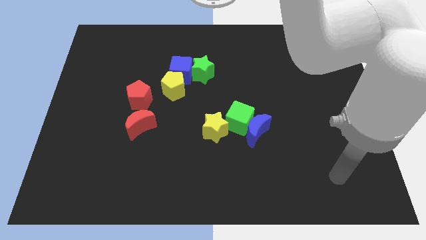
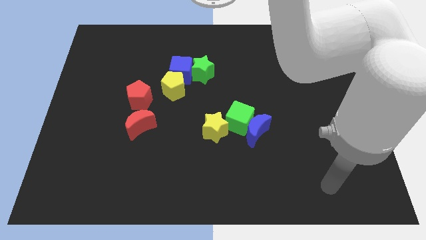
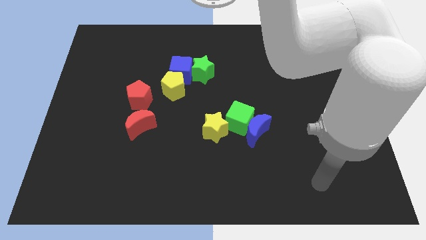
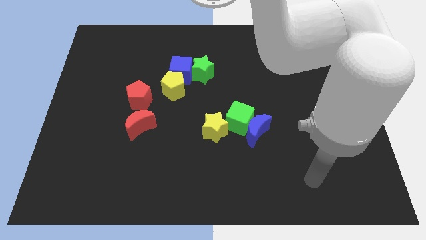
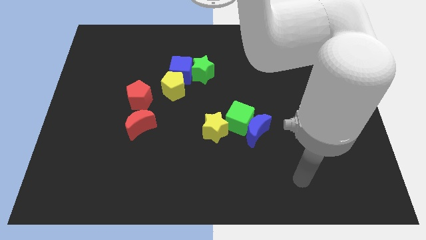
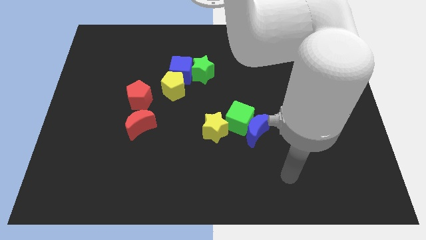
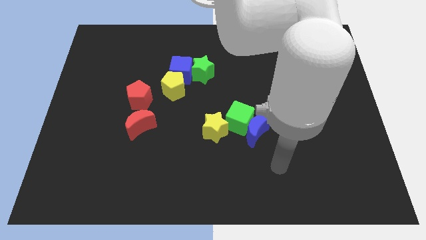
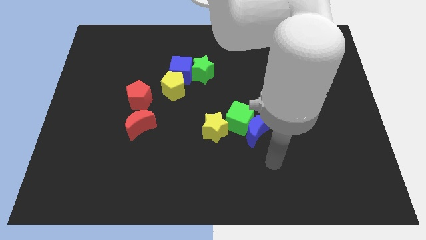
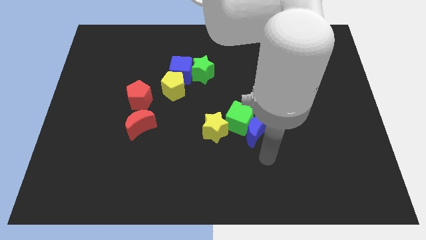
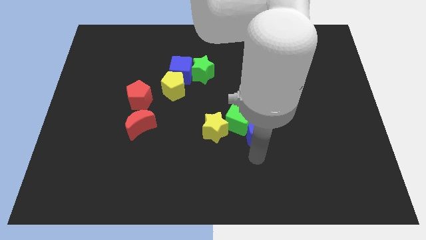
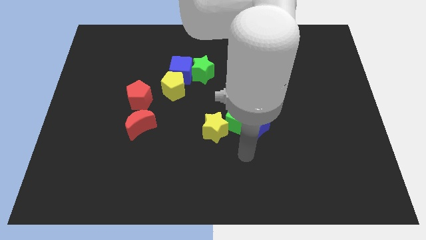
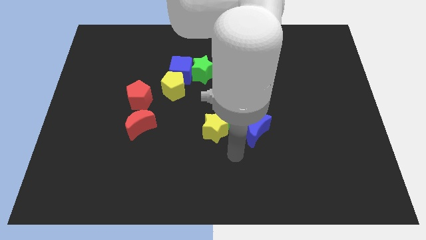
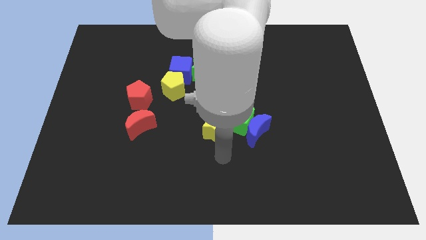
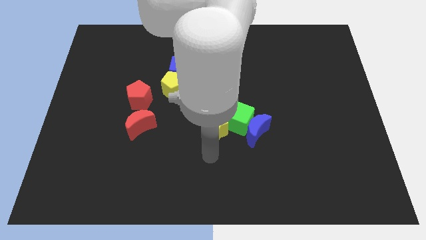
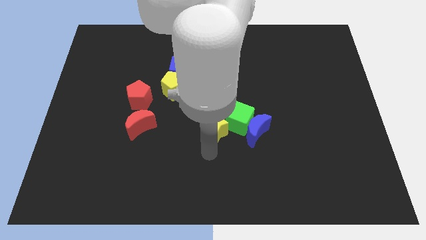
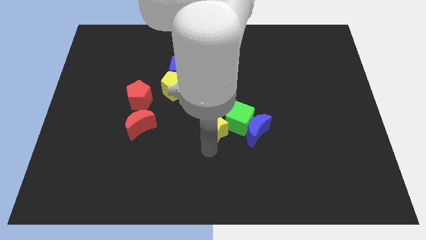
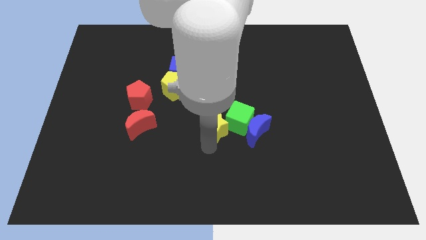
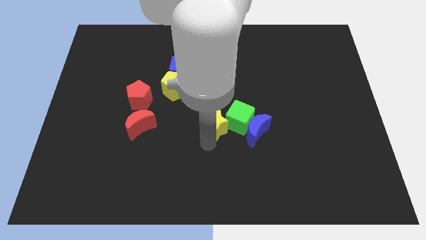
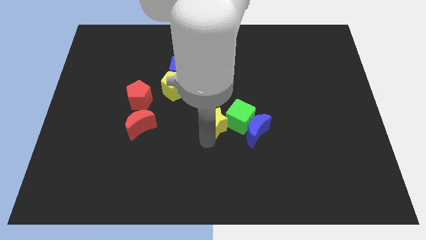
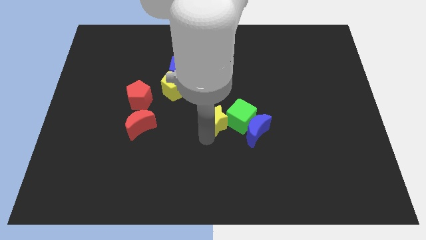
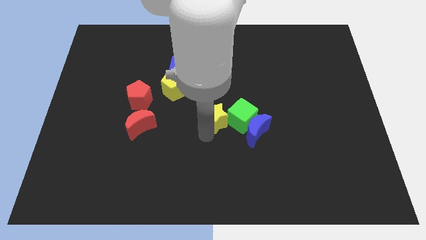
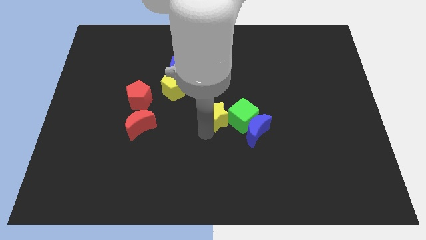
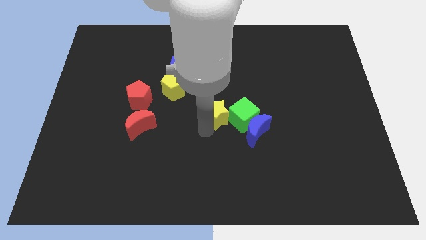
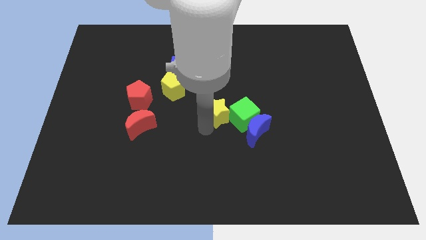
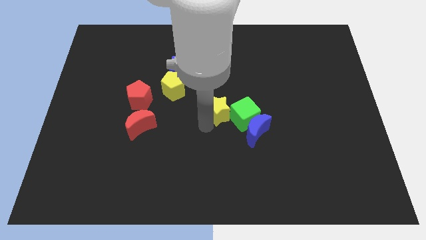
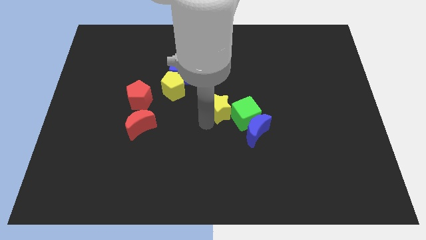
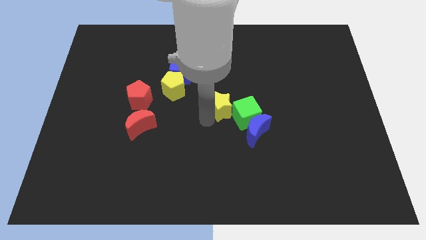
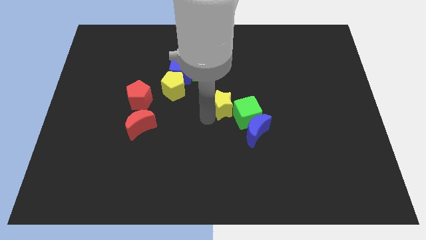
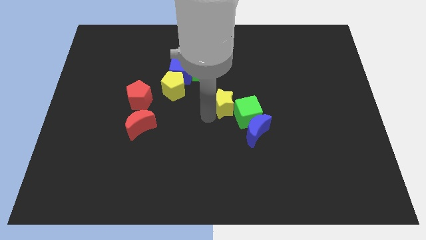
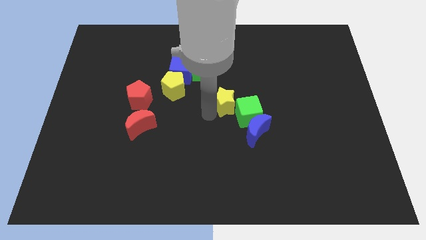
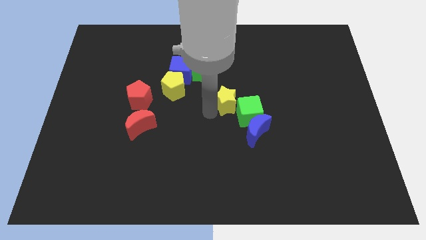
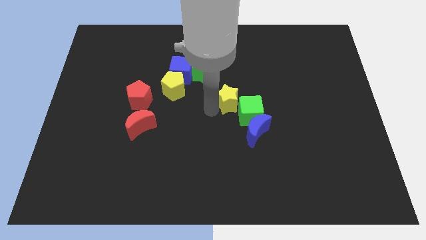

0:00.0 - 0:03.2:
slightly push the yellow star up and to the right

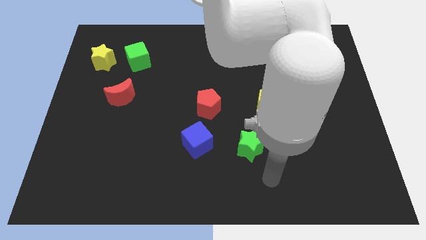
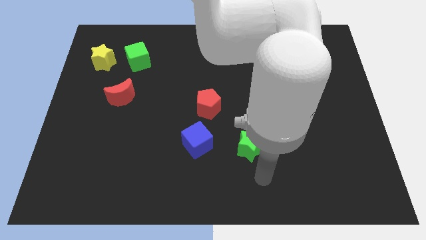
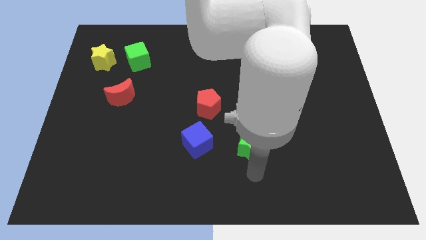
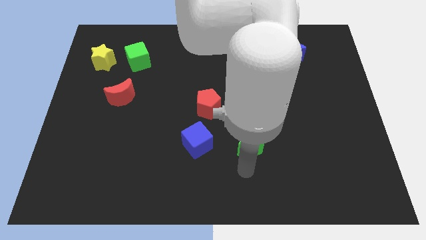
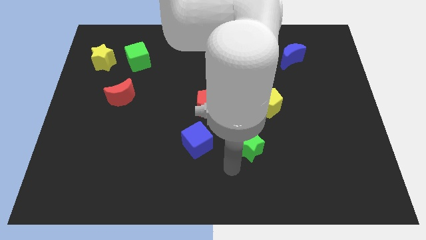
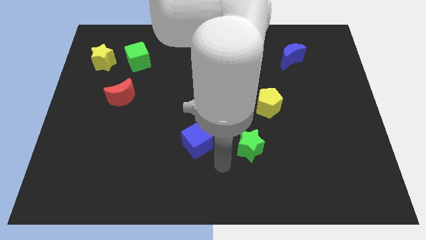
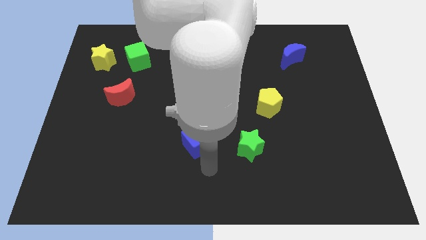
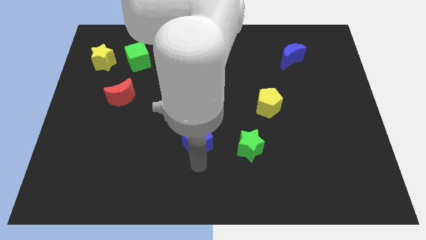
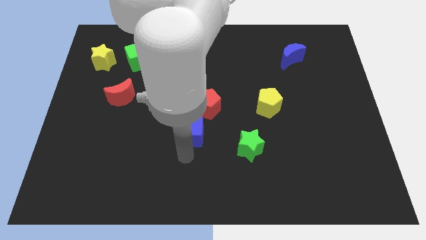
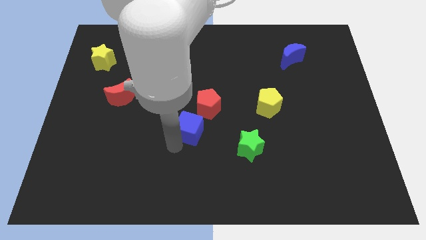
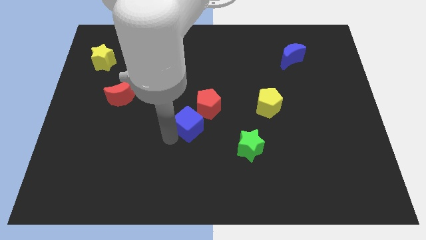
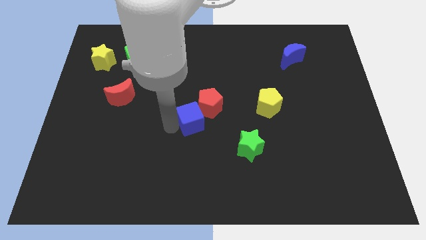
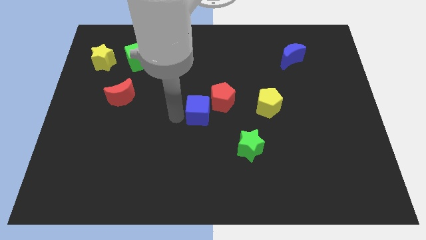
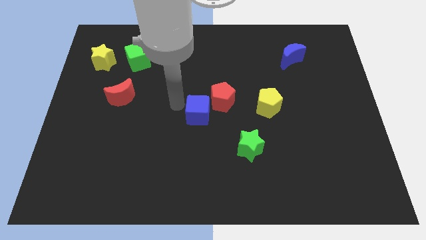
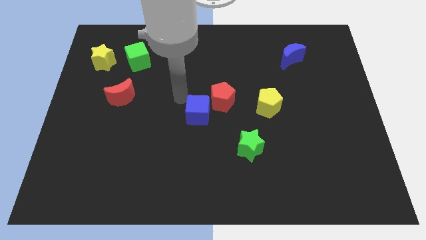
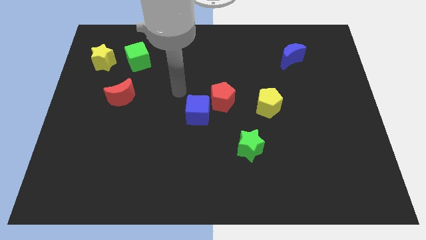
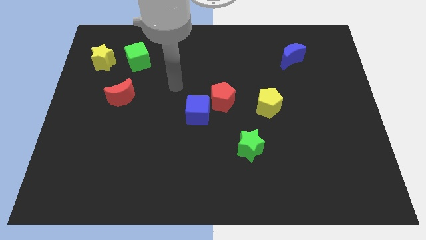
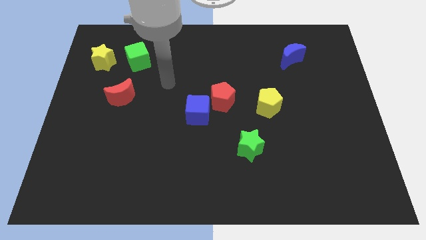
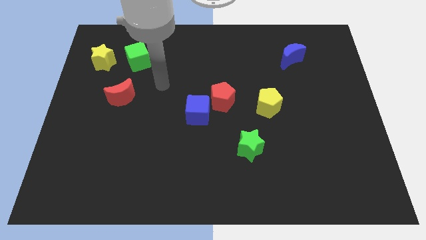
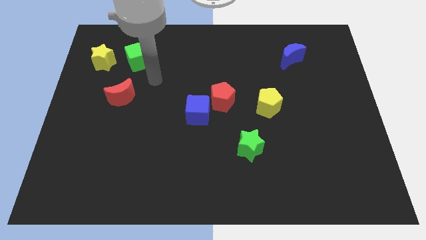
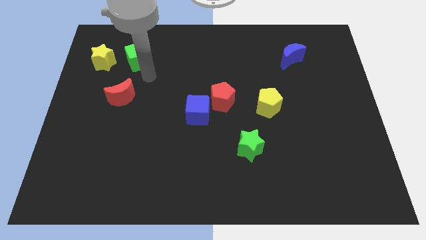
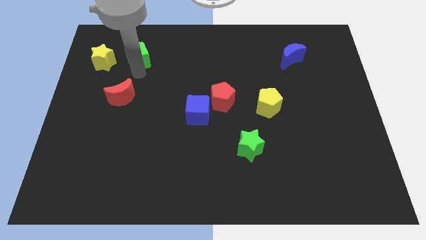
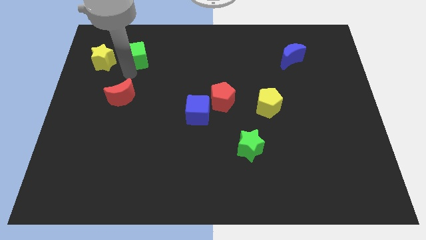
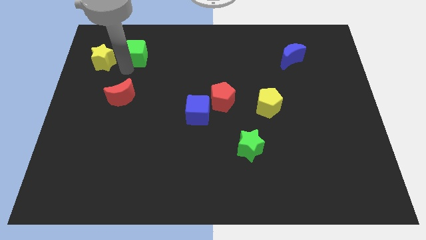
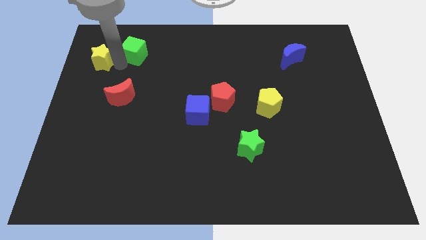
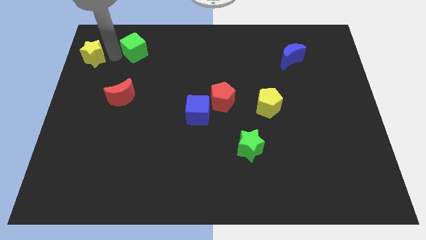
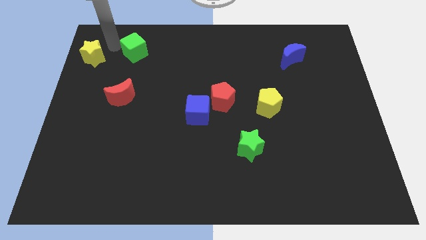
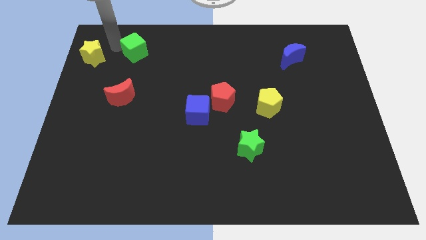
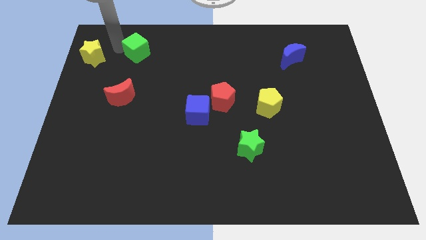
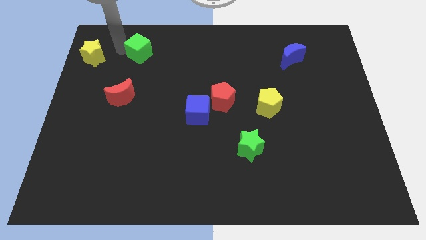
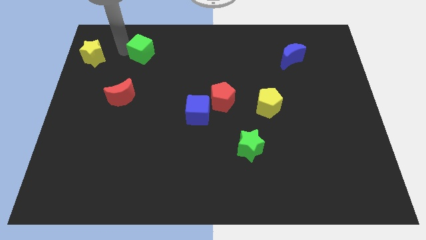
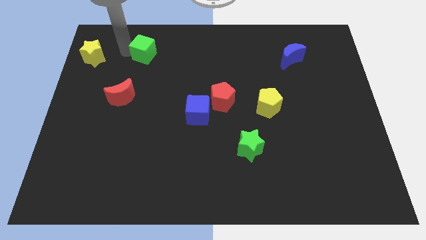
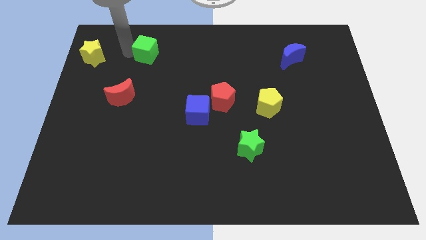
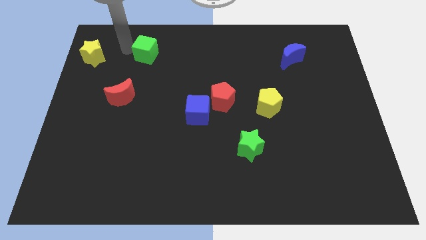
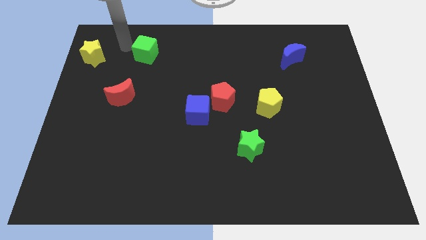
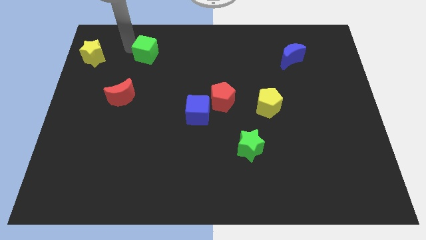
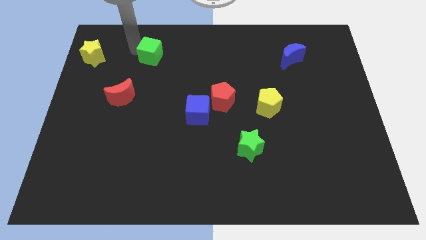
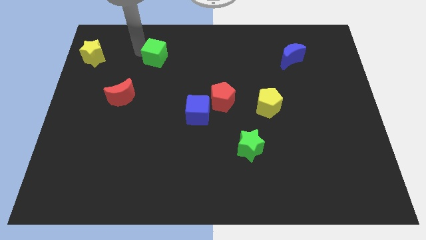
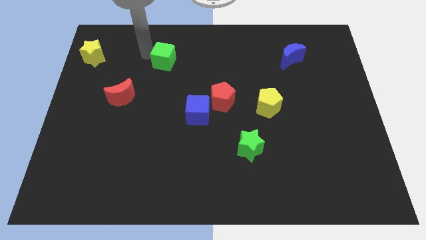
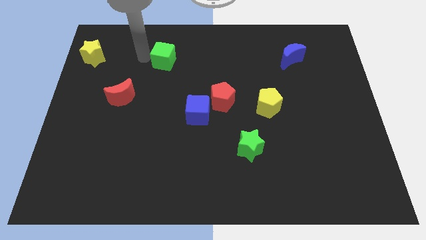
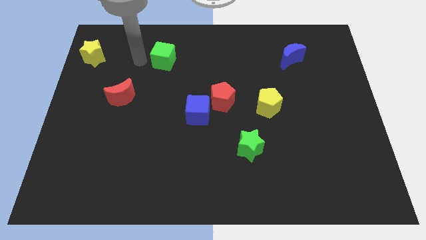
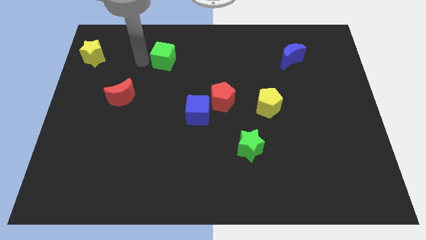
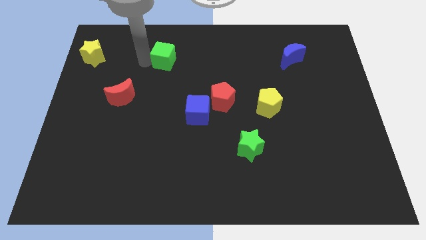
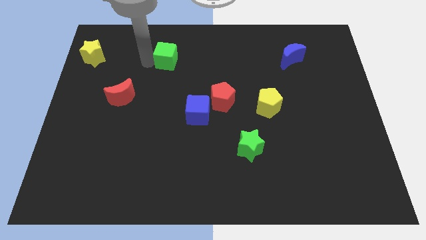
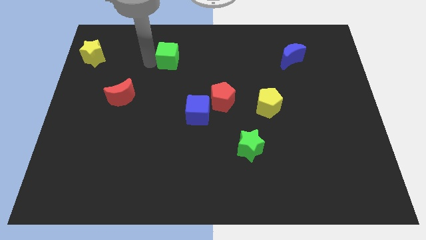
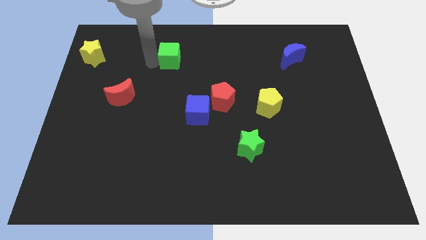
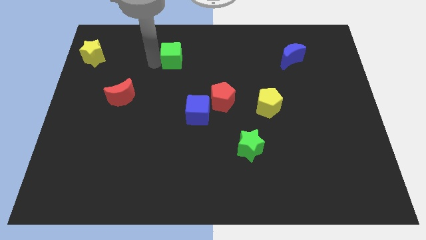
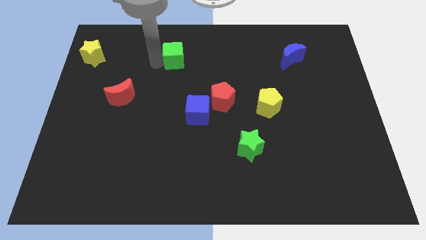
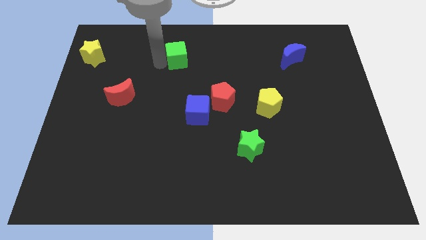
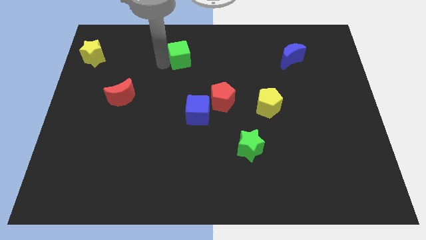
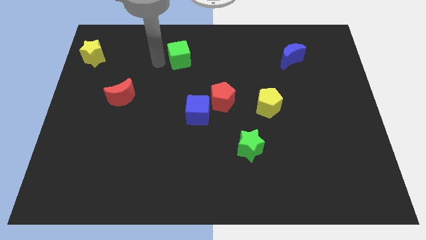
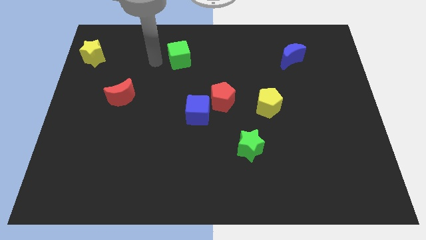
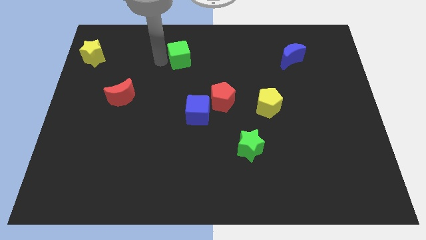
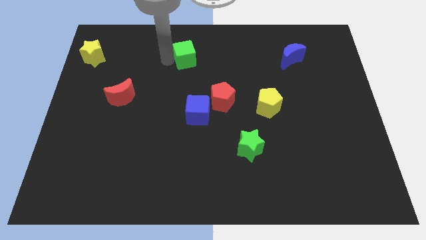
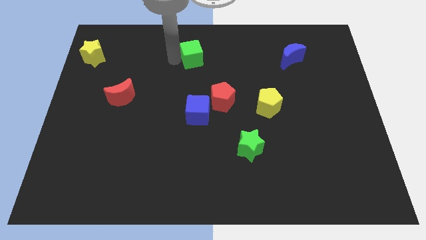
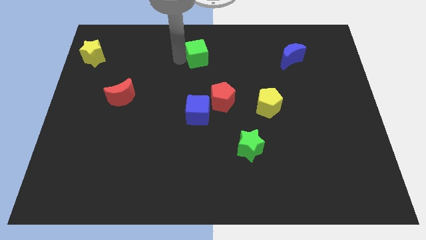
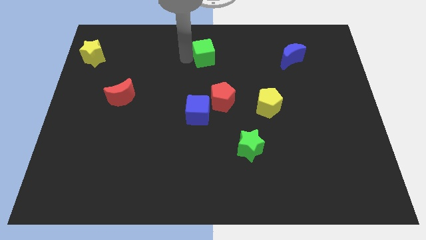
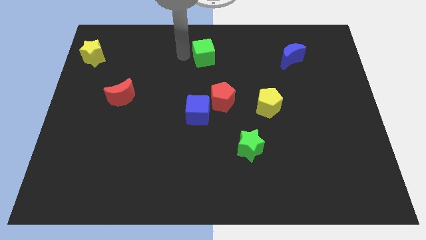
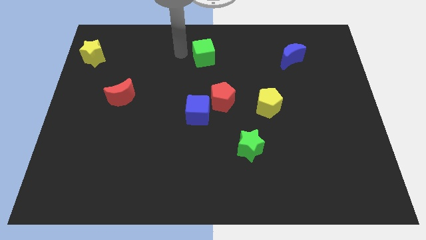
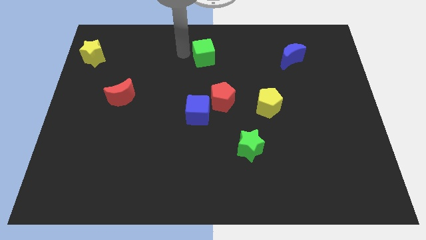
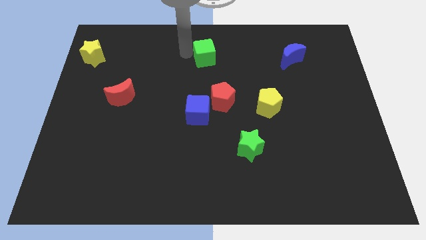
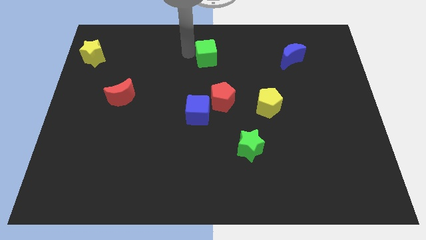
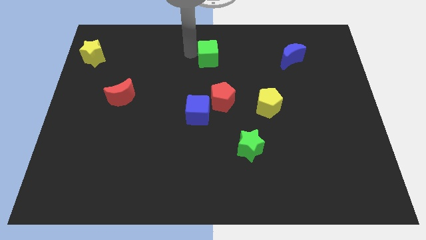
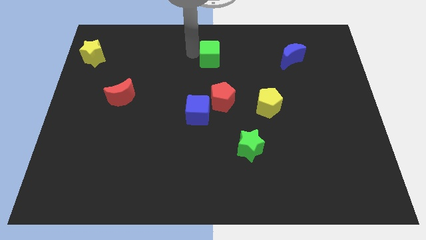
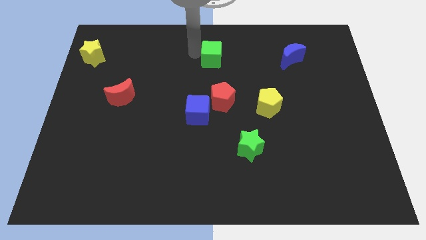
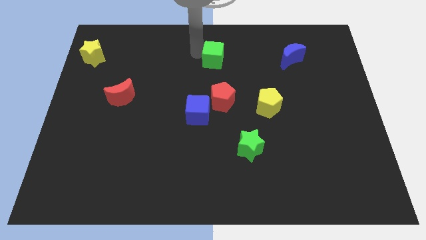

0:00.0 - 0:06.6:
slide the green cube to the right
